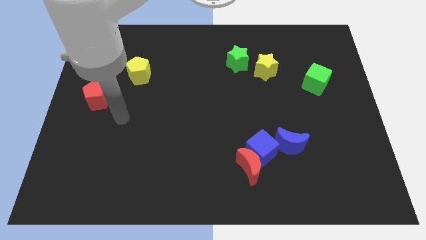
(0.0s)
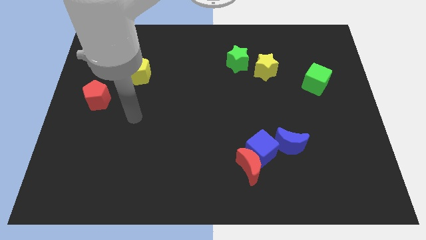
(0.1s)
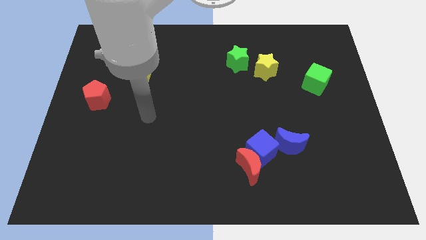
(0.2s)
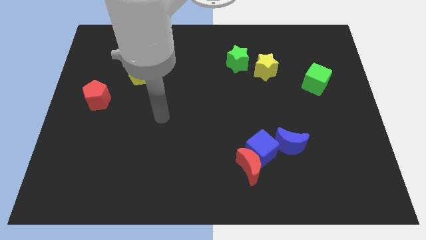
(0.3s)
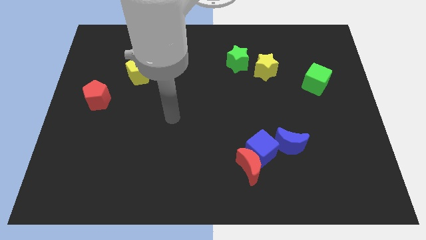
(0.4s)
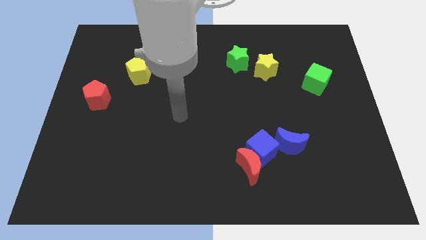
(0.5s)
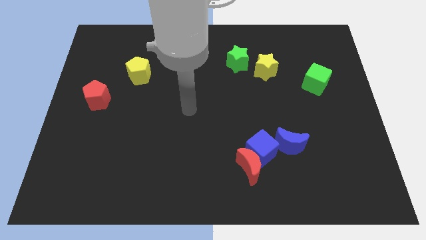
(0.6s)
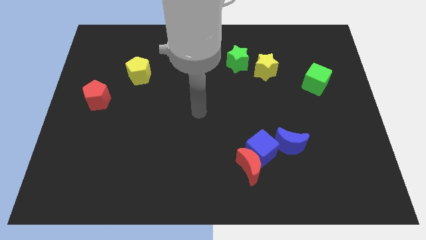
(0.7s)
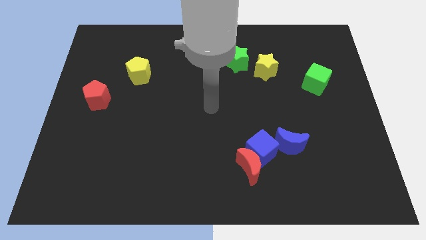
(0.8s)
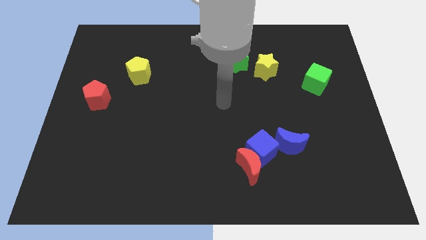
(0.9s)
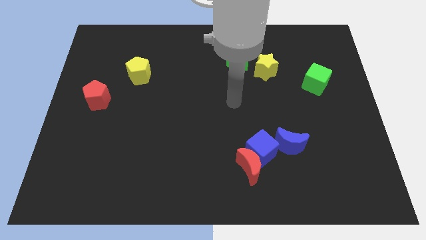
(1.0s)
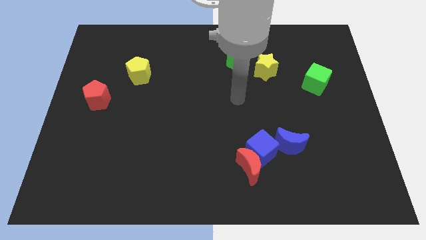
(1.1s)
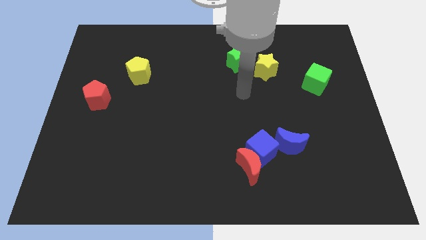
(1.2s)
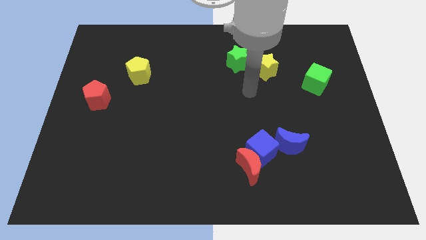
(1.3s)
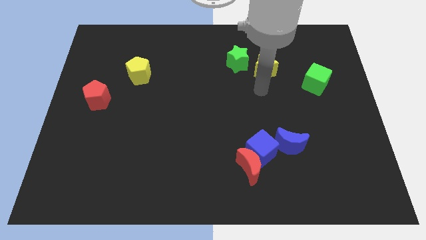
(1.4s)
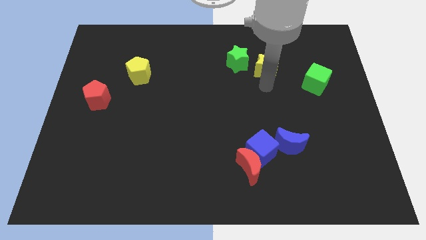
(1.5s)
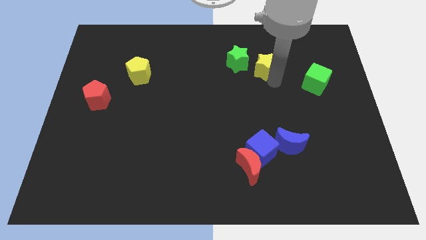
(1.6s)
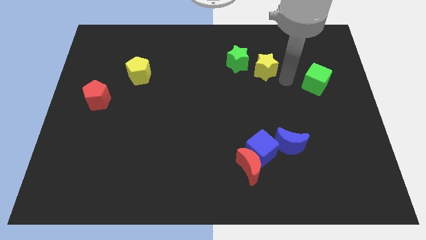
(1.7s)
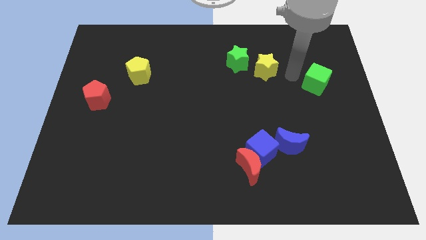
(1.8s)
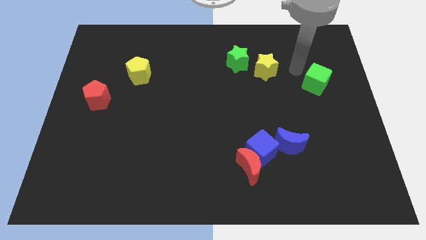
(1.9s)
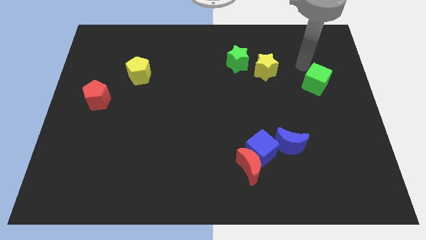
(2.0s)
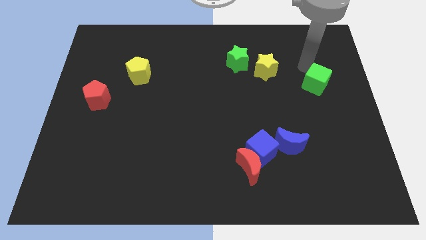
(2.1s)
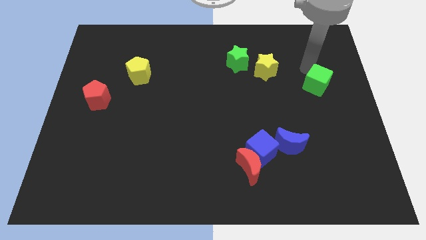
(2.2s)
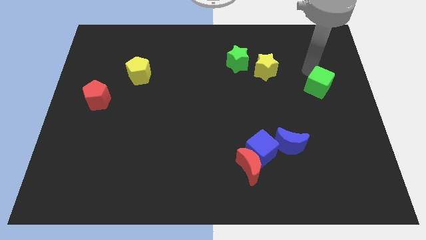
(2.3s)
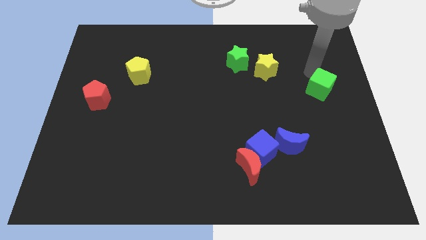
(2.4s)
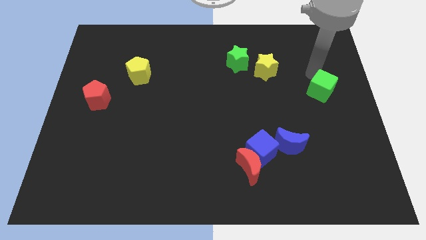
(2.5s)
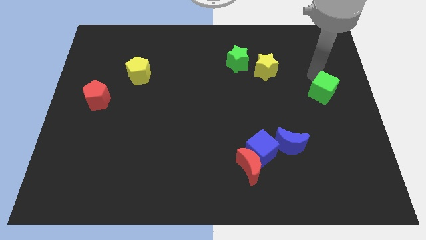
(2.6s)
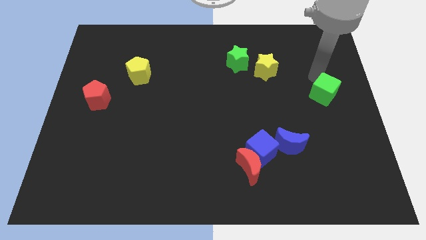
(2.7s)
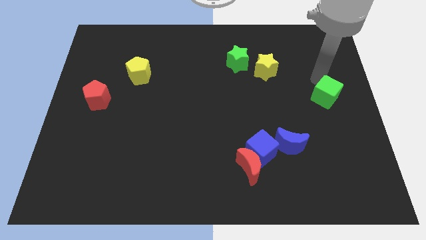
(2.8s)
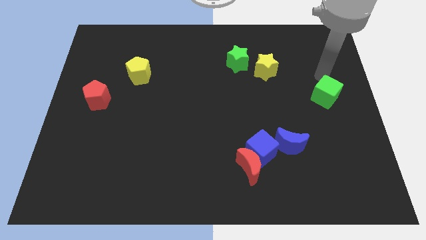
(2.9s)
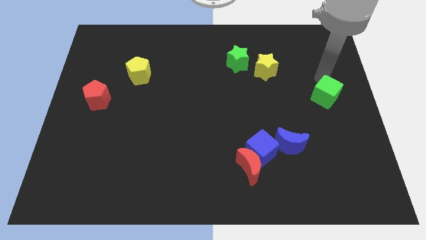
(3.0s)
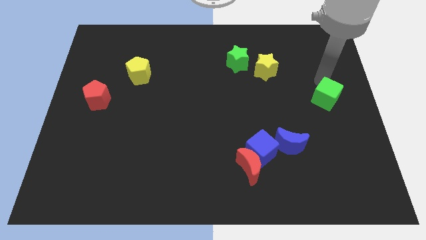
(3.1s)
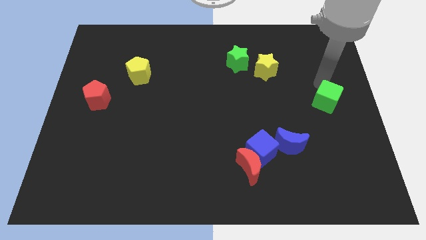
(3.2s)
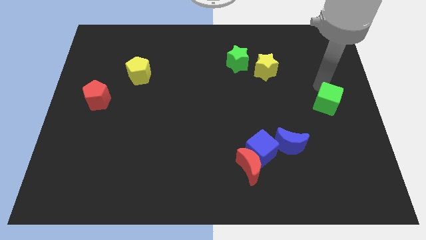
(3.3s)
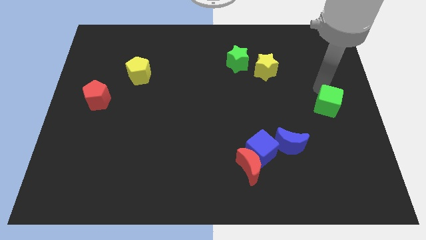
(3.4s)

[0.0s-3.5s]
push the green cube a little bit down

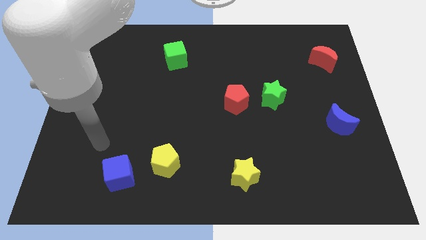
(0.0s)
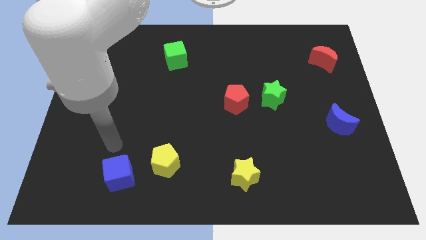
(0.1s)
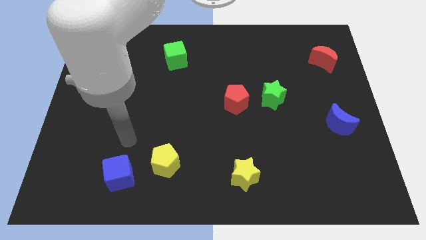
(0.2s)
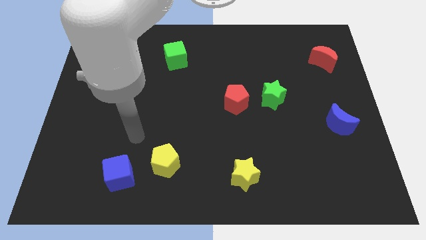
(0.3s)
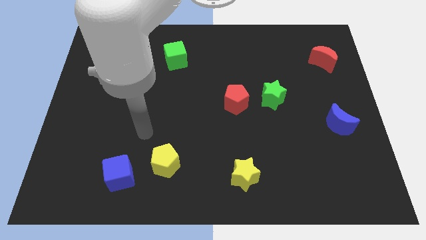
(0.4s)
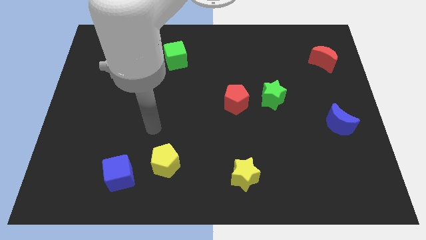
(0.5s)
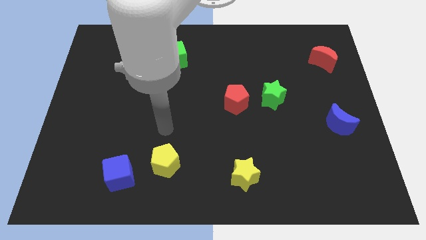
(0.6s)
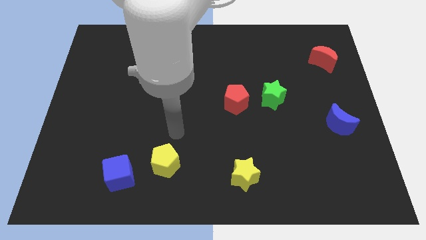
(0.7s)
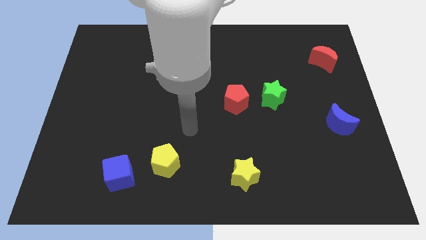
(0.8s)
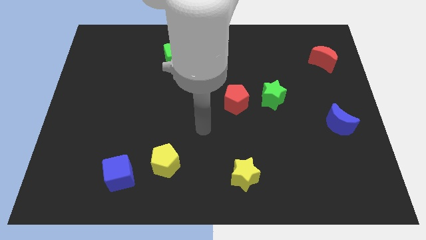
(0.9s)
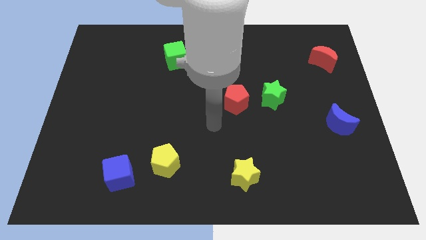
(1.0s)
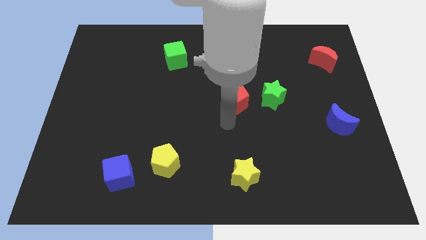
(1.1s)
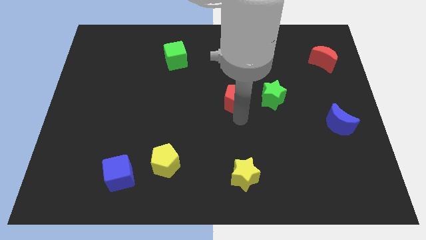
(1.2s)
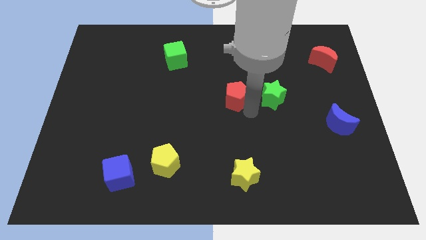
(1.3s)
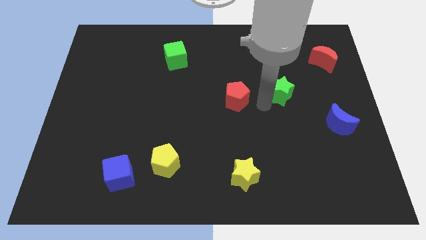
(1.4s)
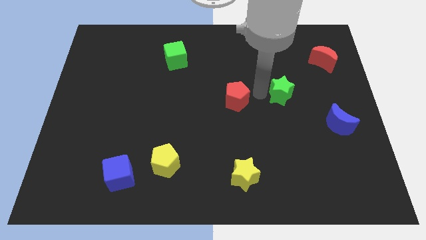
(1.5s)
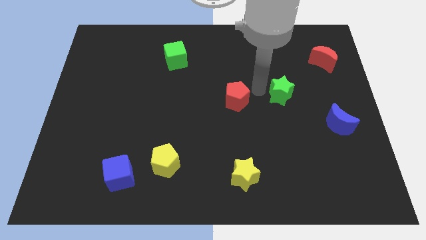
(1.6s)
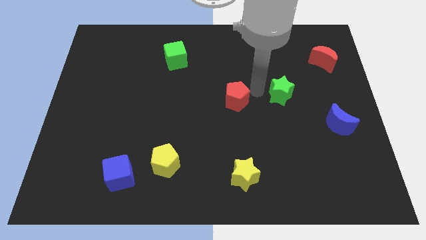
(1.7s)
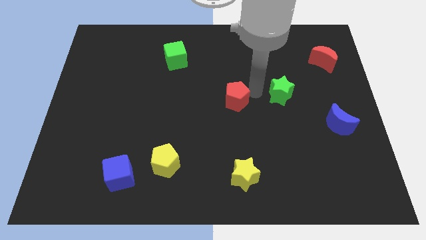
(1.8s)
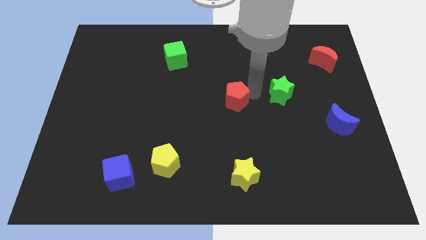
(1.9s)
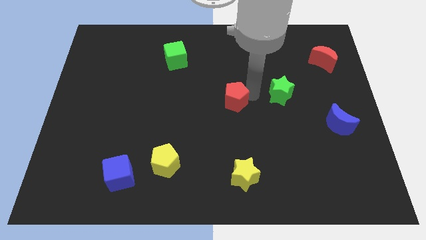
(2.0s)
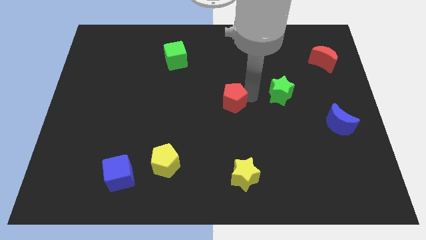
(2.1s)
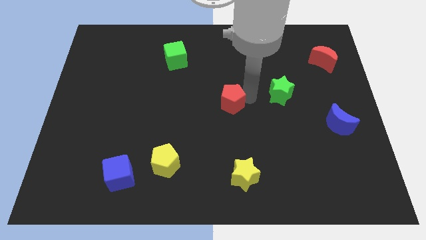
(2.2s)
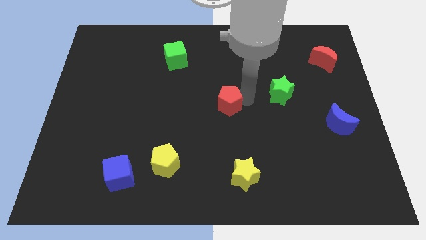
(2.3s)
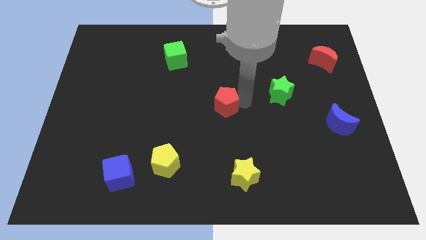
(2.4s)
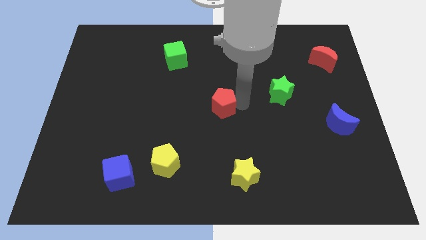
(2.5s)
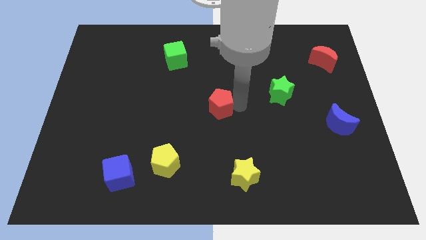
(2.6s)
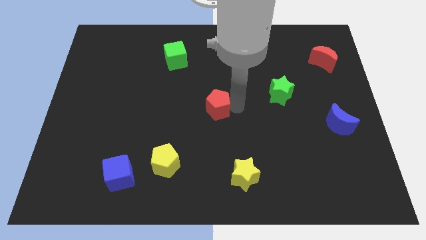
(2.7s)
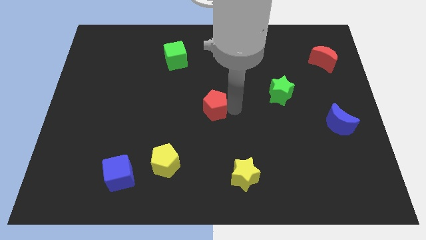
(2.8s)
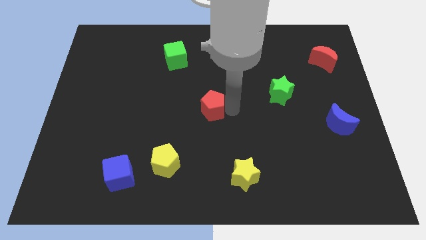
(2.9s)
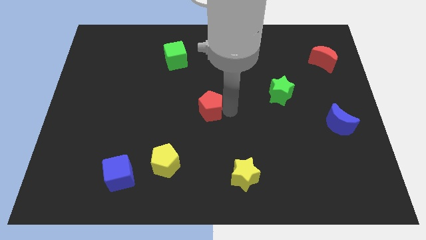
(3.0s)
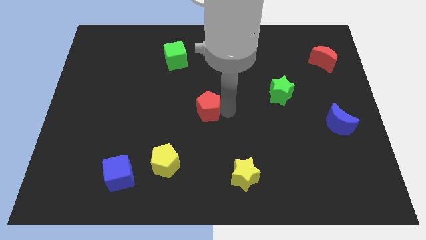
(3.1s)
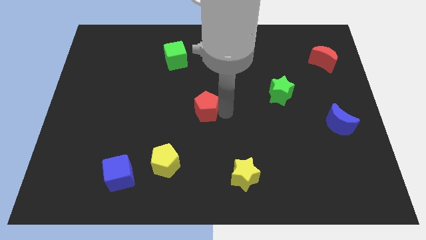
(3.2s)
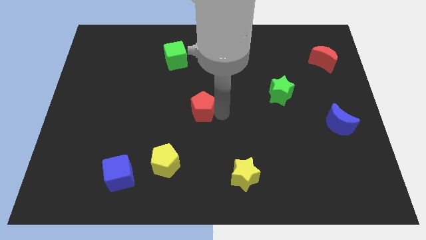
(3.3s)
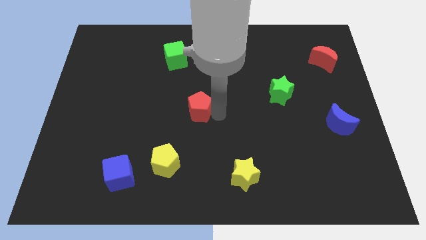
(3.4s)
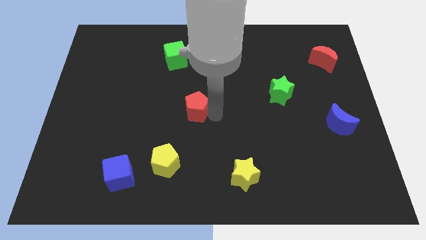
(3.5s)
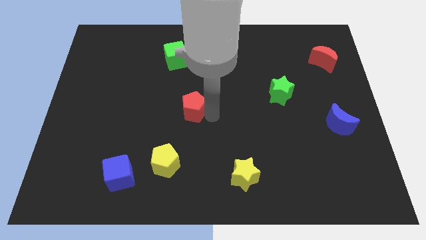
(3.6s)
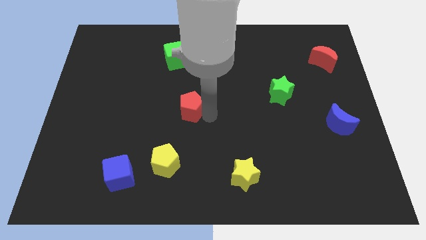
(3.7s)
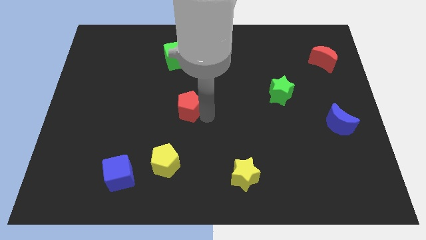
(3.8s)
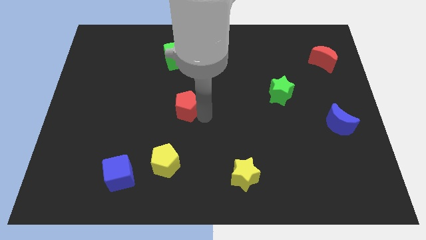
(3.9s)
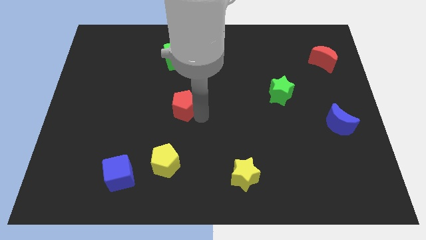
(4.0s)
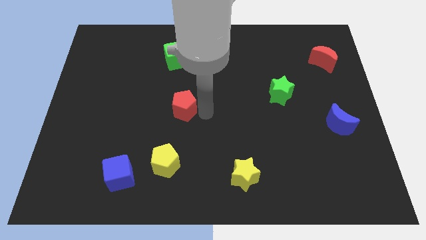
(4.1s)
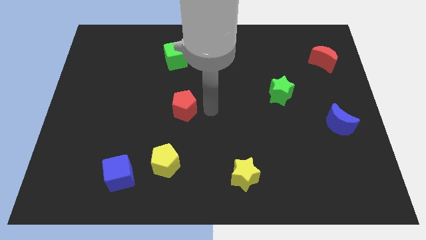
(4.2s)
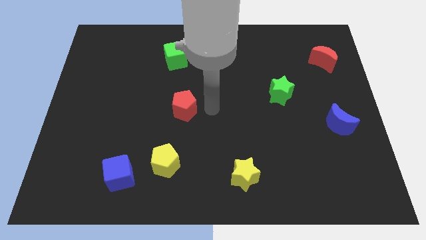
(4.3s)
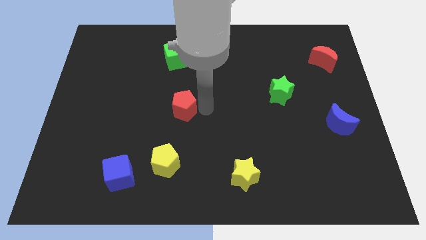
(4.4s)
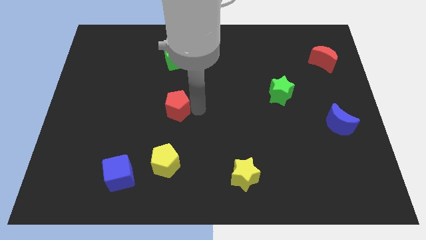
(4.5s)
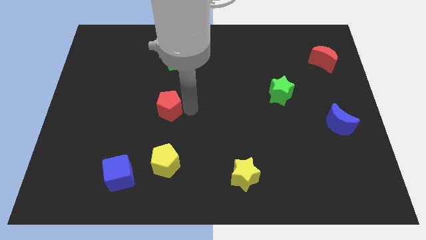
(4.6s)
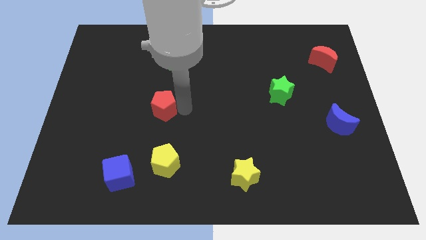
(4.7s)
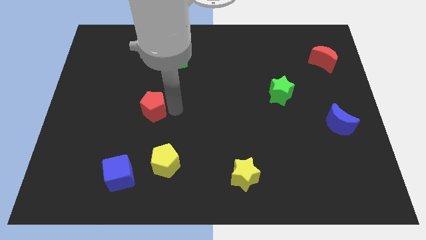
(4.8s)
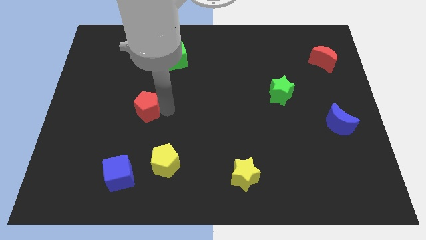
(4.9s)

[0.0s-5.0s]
slide the red pentagon left

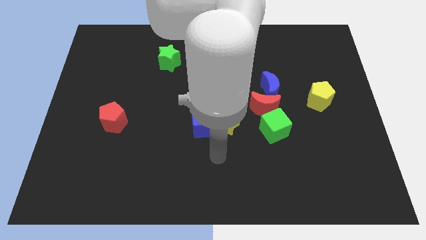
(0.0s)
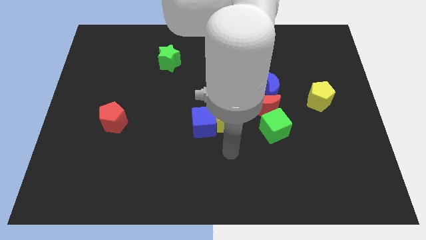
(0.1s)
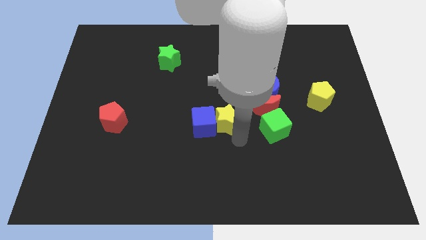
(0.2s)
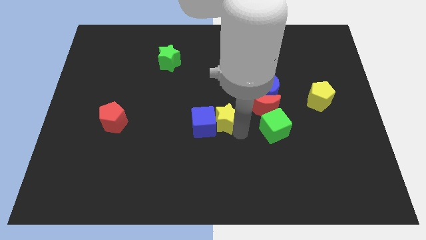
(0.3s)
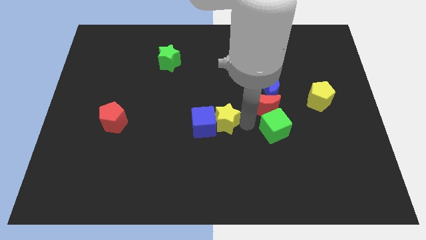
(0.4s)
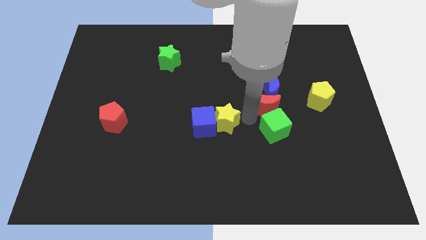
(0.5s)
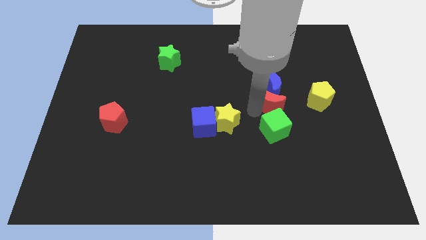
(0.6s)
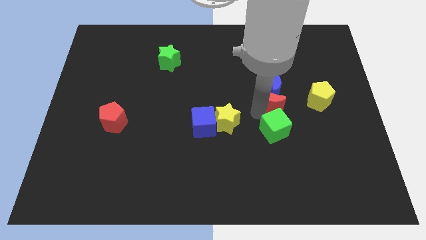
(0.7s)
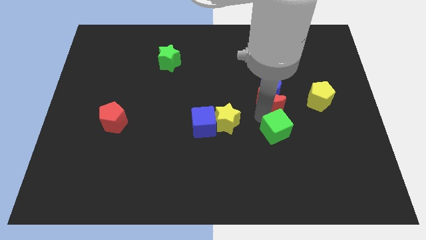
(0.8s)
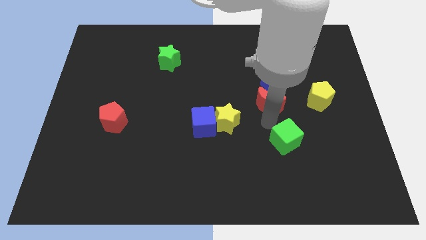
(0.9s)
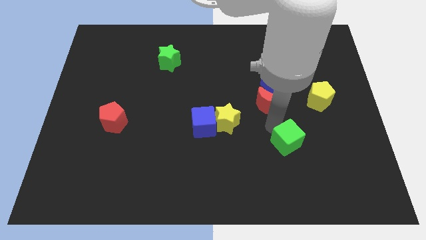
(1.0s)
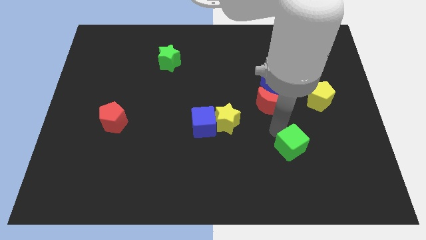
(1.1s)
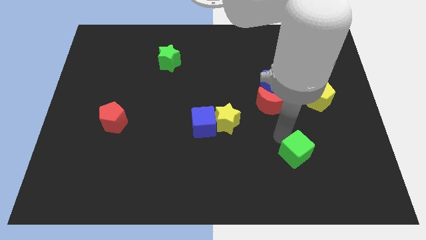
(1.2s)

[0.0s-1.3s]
move the green cube down and to the right a little
